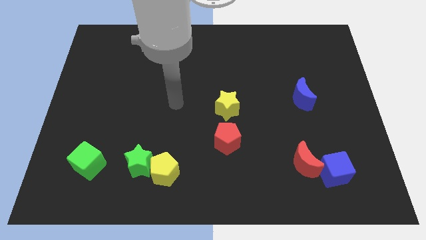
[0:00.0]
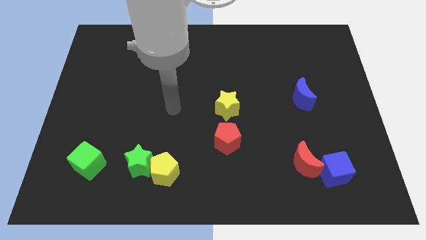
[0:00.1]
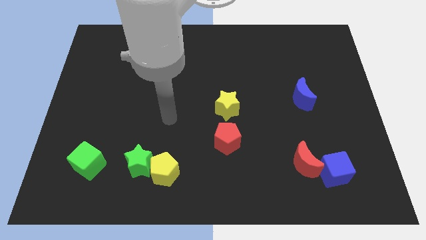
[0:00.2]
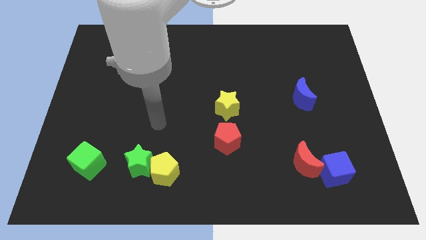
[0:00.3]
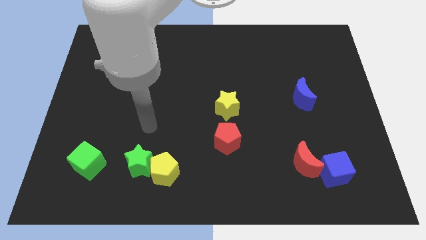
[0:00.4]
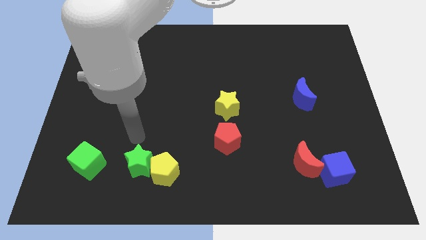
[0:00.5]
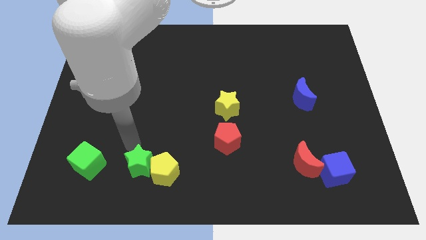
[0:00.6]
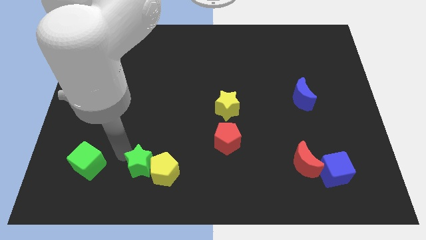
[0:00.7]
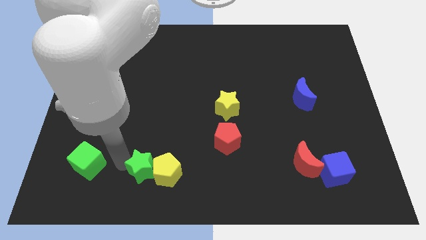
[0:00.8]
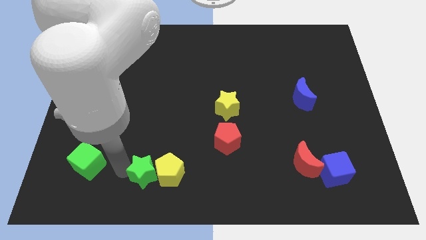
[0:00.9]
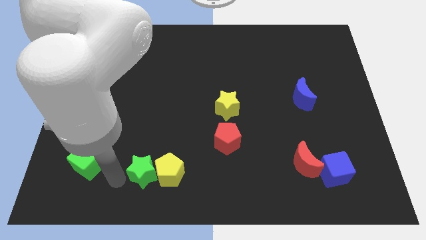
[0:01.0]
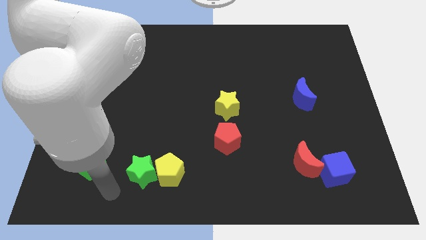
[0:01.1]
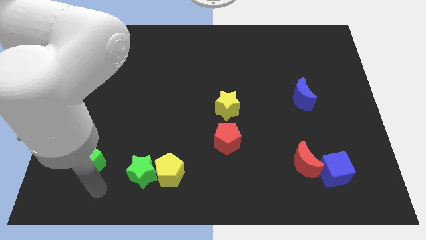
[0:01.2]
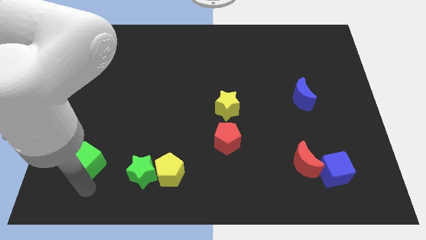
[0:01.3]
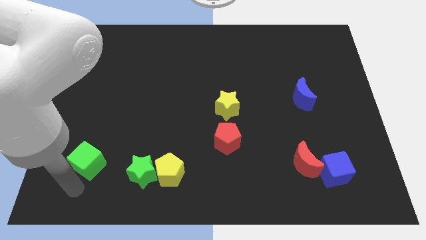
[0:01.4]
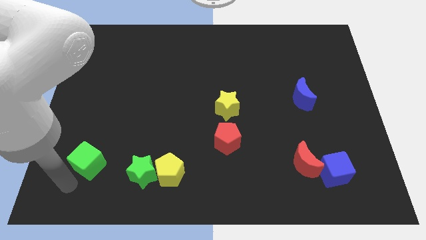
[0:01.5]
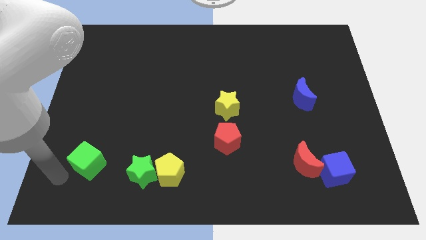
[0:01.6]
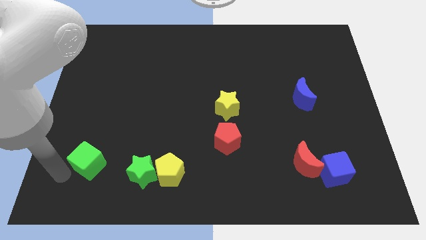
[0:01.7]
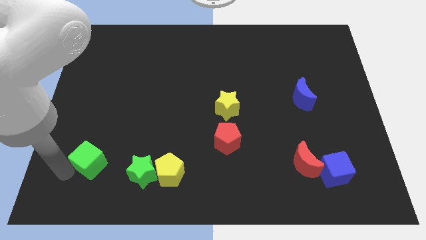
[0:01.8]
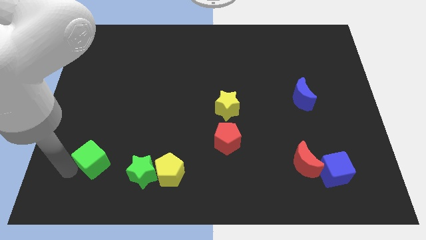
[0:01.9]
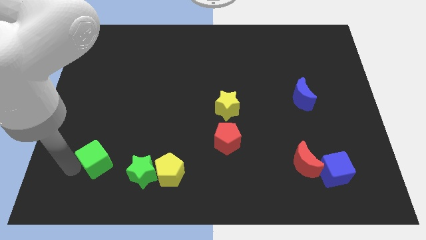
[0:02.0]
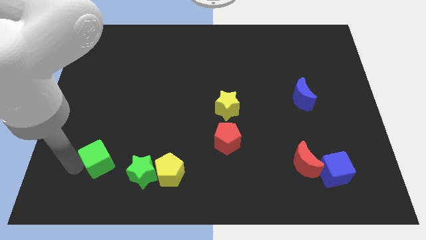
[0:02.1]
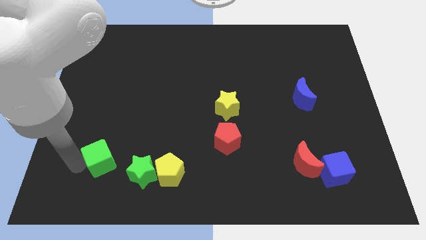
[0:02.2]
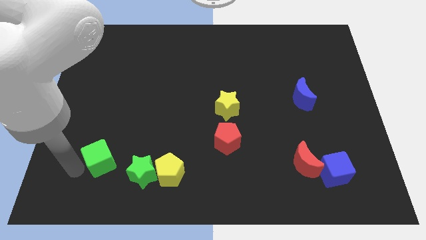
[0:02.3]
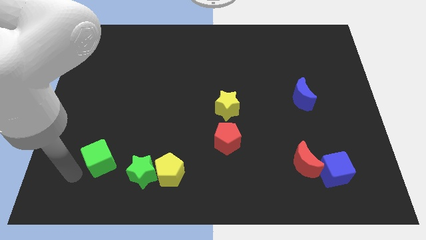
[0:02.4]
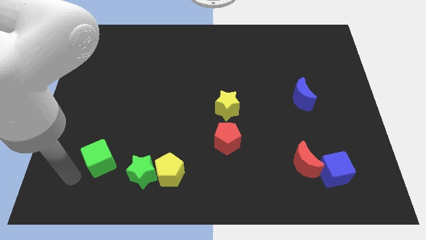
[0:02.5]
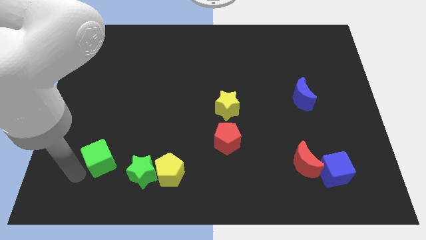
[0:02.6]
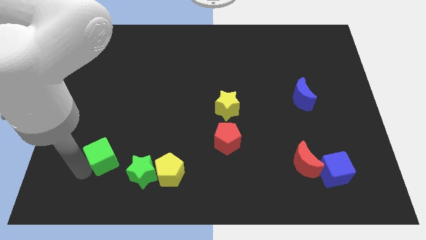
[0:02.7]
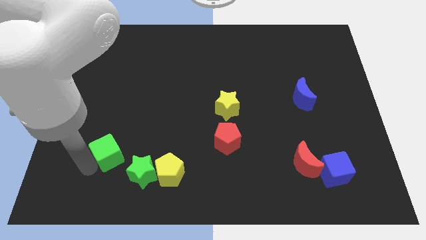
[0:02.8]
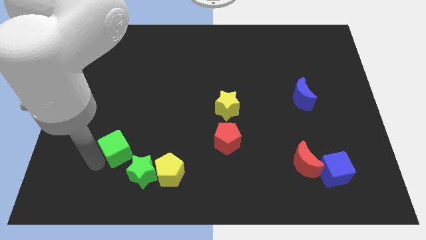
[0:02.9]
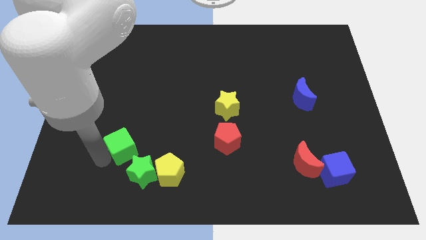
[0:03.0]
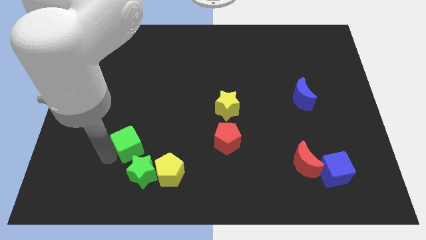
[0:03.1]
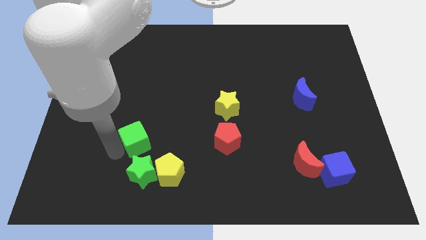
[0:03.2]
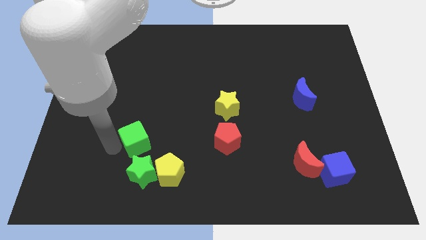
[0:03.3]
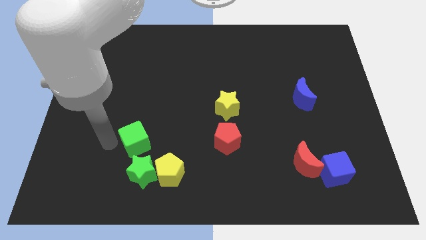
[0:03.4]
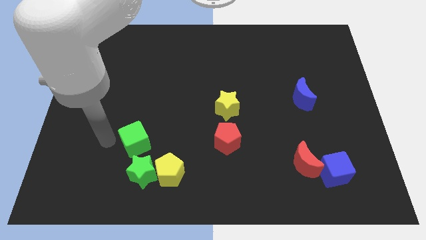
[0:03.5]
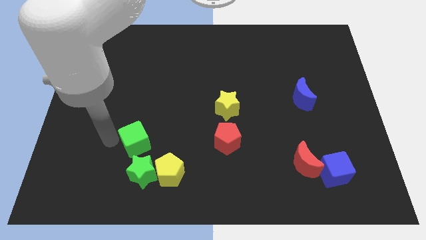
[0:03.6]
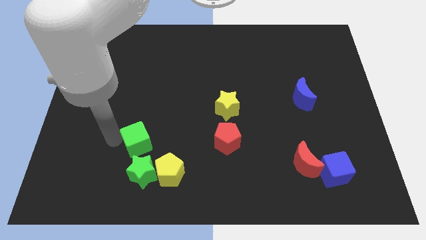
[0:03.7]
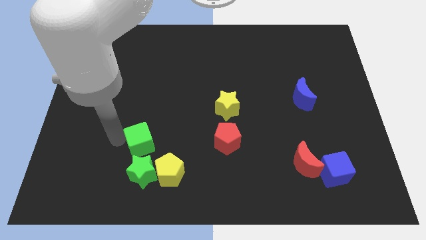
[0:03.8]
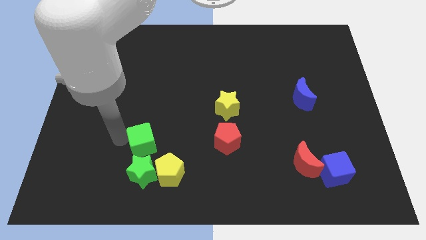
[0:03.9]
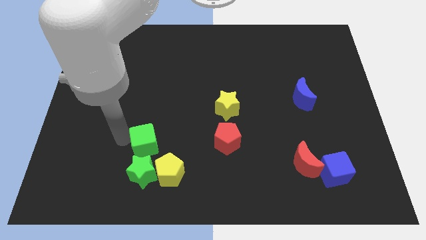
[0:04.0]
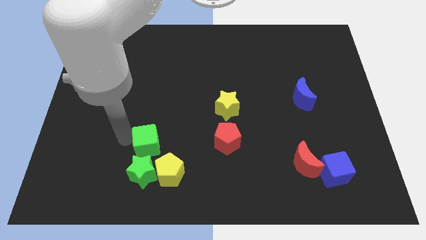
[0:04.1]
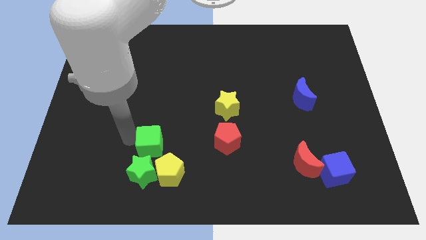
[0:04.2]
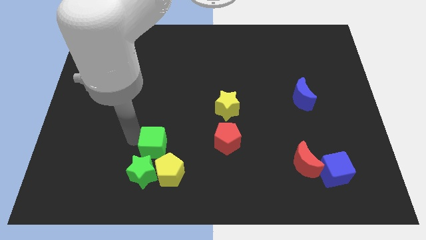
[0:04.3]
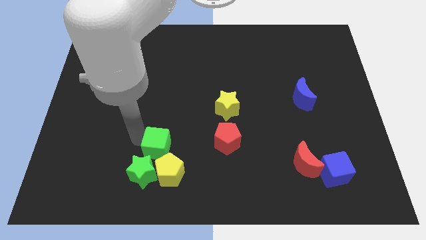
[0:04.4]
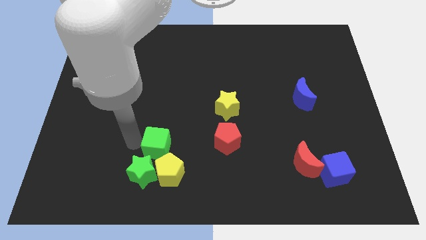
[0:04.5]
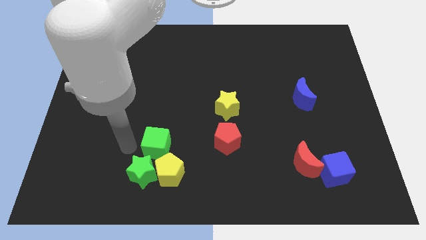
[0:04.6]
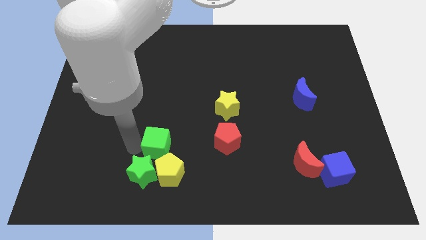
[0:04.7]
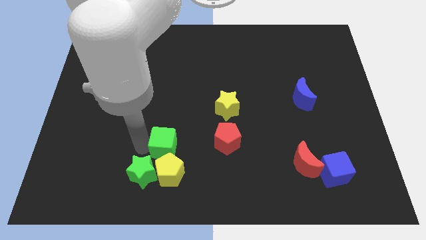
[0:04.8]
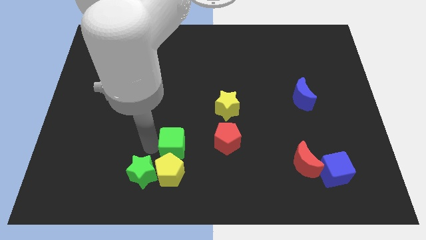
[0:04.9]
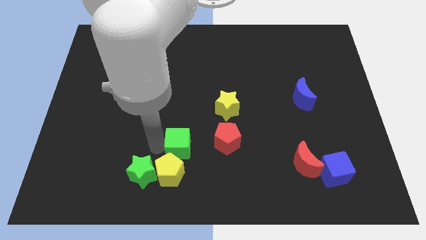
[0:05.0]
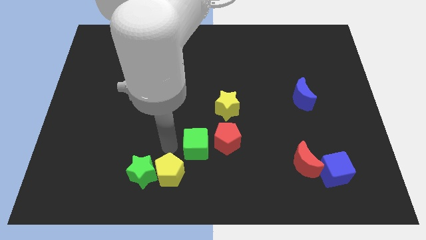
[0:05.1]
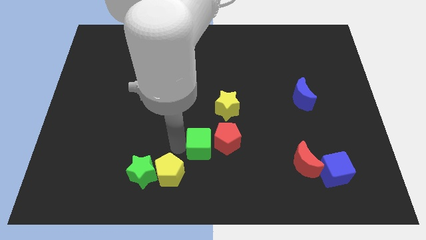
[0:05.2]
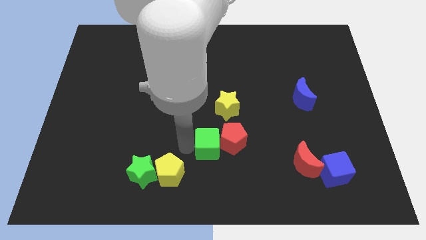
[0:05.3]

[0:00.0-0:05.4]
push the green cube to the bottom of the yellow star

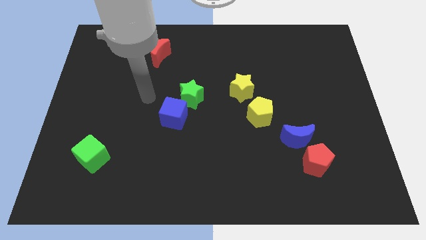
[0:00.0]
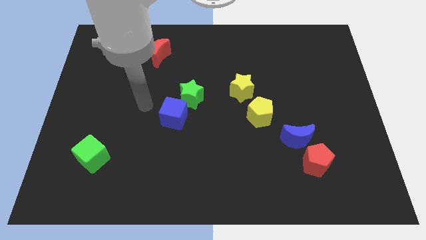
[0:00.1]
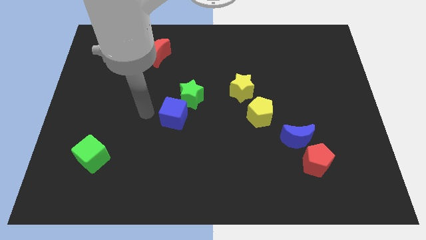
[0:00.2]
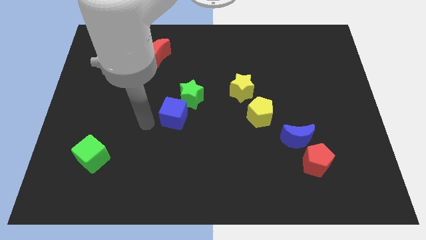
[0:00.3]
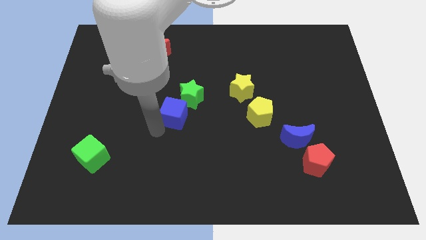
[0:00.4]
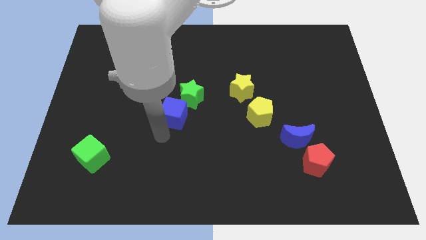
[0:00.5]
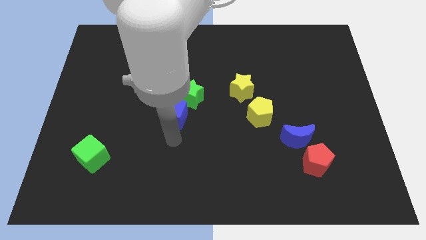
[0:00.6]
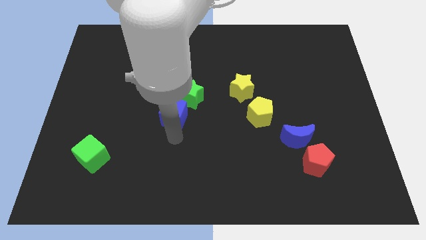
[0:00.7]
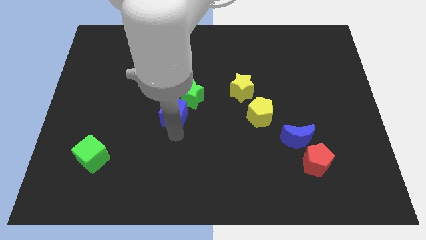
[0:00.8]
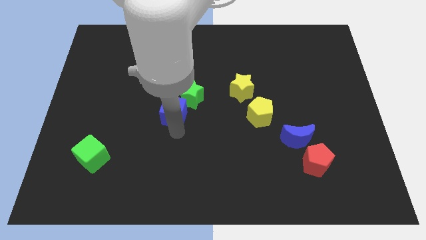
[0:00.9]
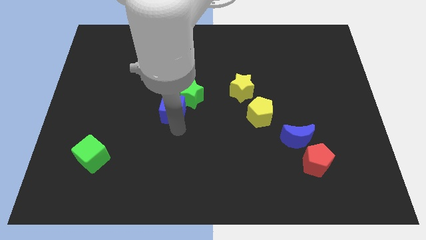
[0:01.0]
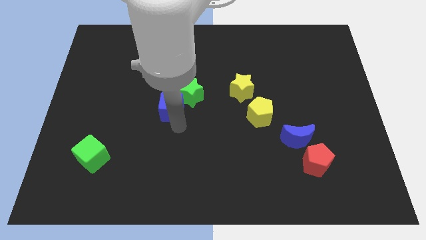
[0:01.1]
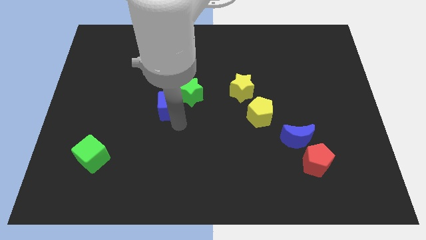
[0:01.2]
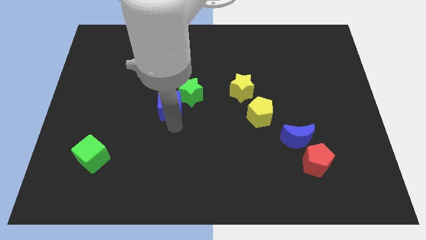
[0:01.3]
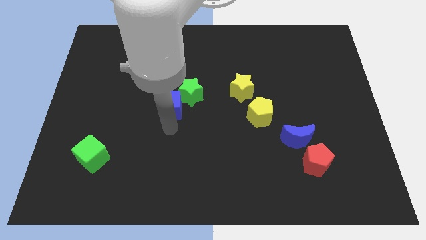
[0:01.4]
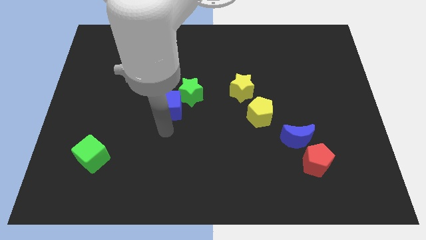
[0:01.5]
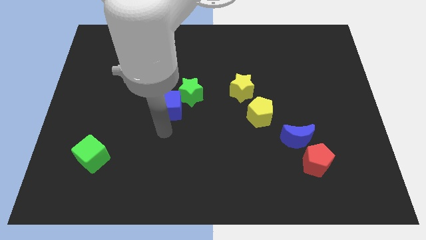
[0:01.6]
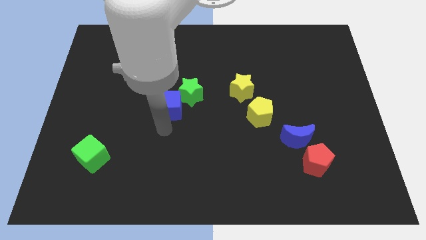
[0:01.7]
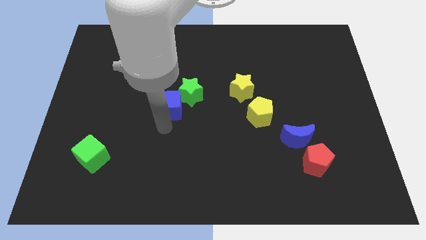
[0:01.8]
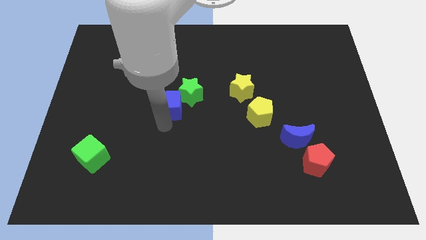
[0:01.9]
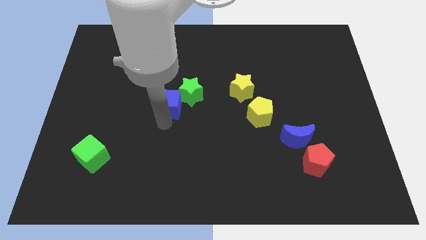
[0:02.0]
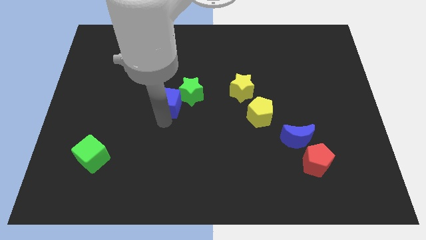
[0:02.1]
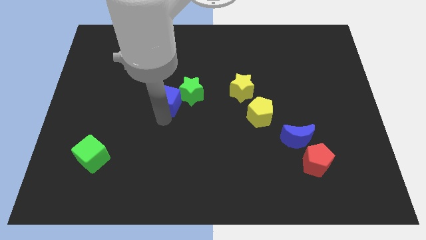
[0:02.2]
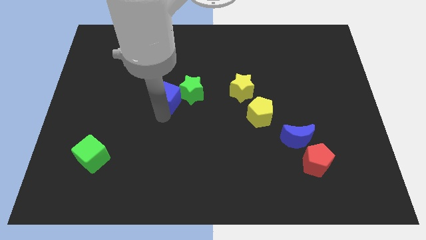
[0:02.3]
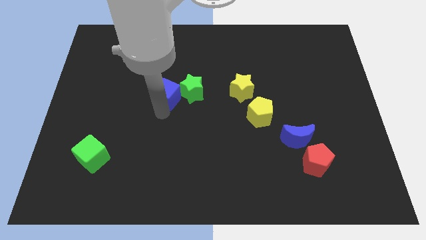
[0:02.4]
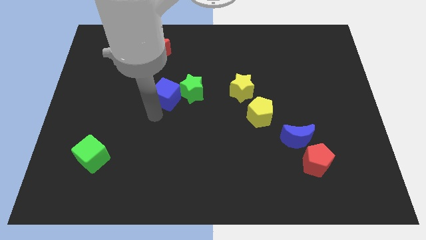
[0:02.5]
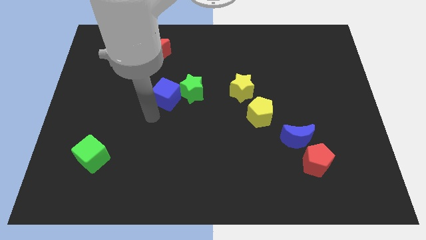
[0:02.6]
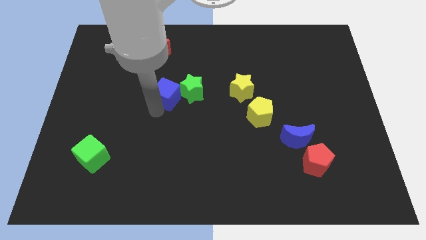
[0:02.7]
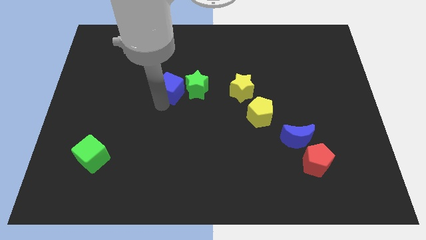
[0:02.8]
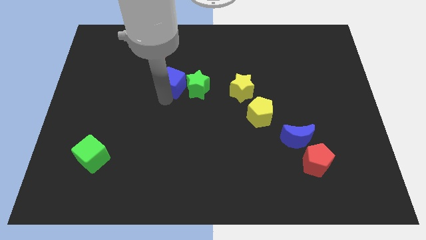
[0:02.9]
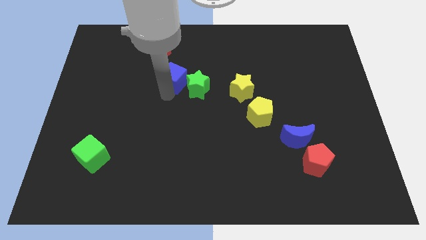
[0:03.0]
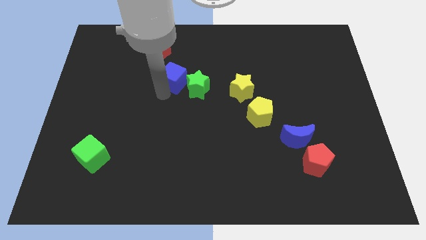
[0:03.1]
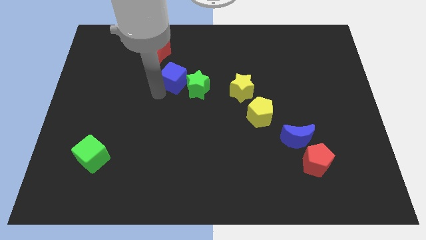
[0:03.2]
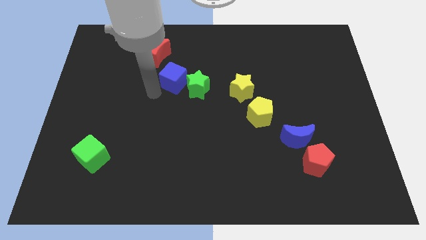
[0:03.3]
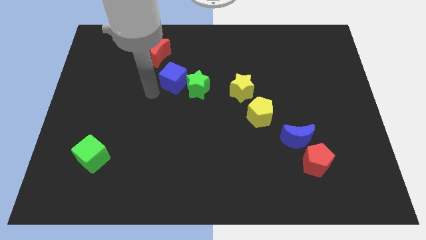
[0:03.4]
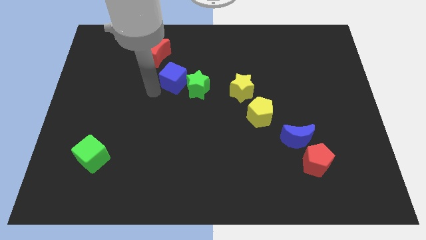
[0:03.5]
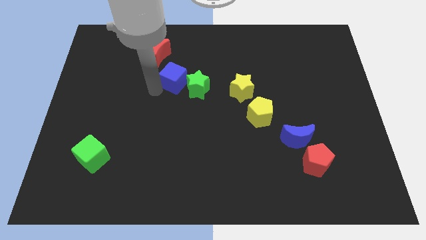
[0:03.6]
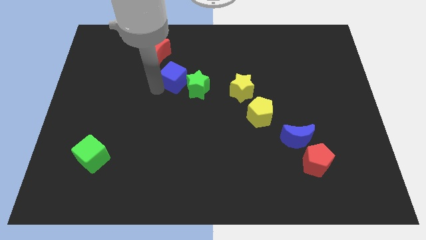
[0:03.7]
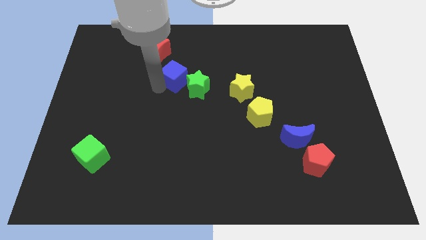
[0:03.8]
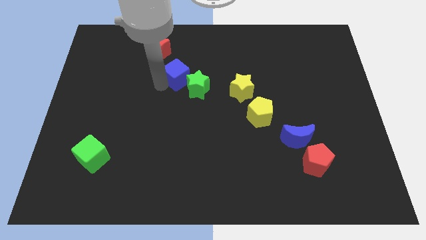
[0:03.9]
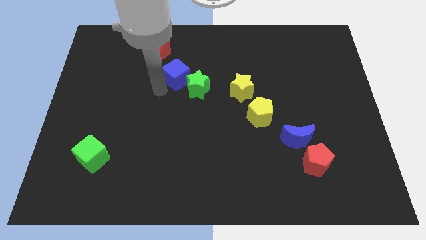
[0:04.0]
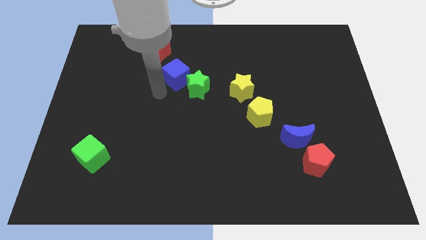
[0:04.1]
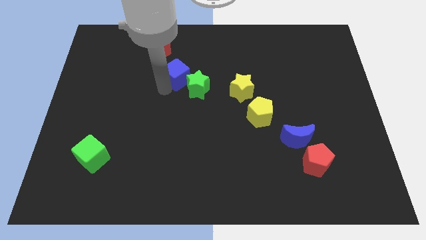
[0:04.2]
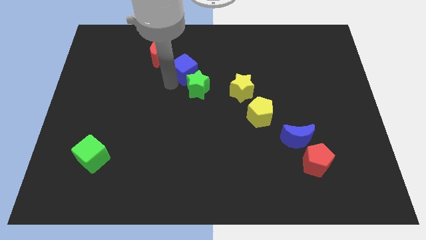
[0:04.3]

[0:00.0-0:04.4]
slide the blue cube to the top of the green star
